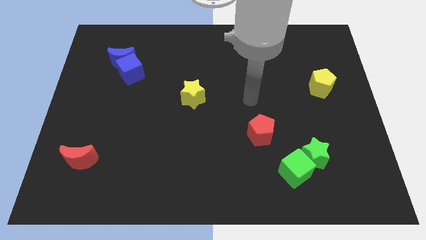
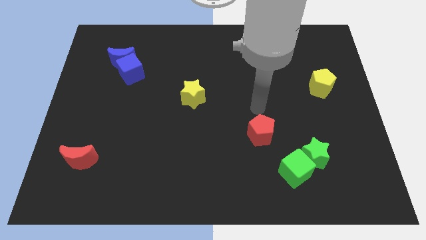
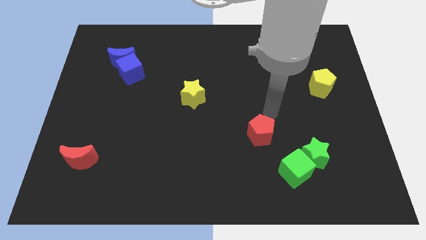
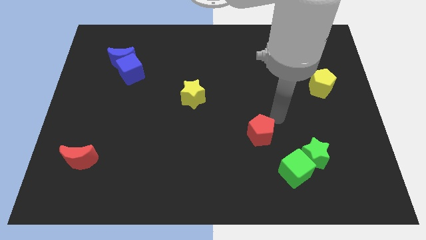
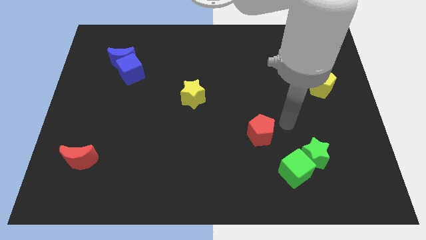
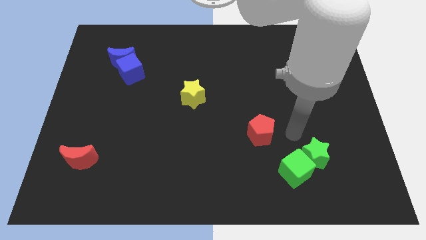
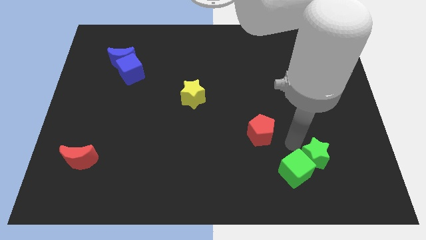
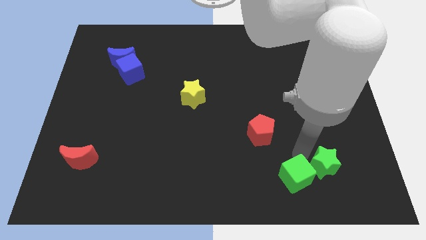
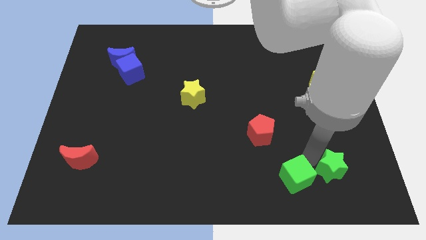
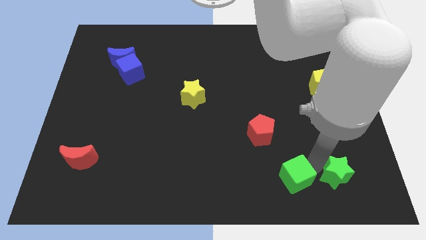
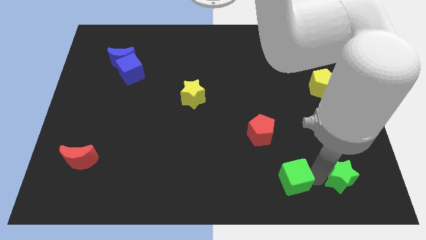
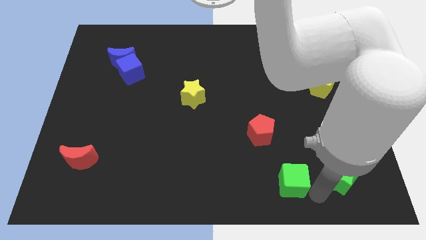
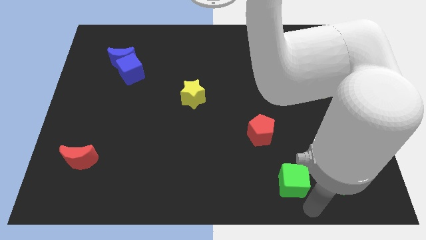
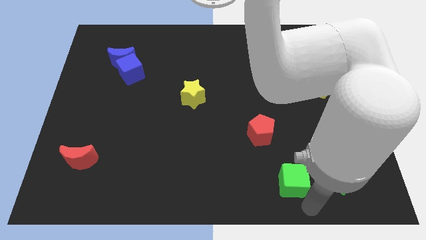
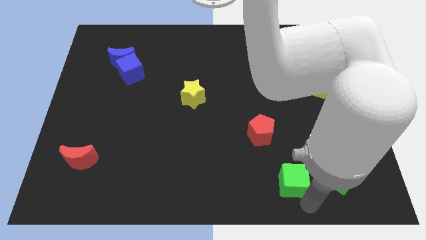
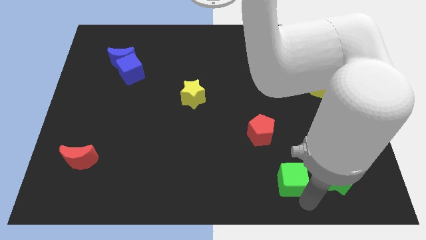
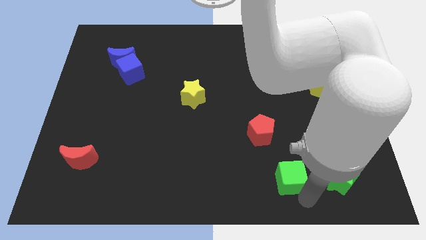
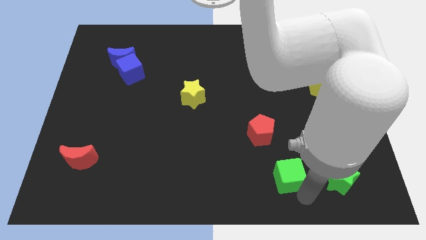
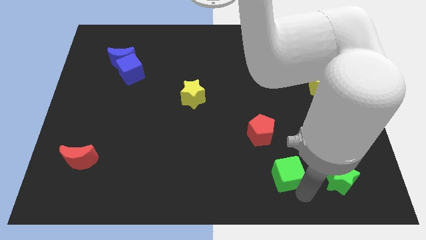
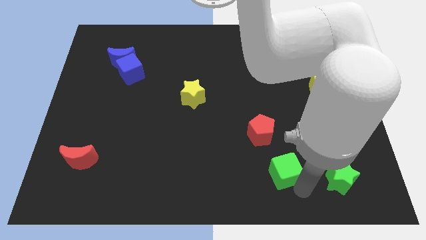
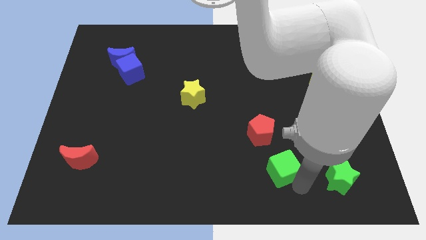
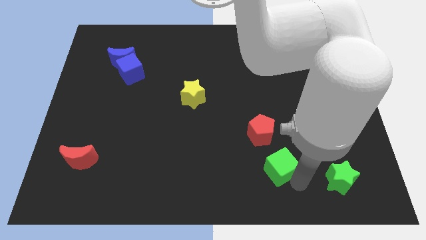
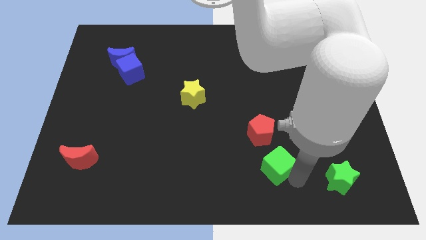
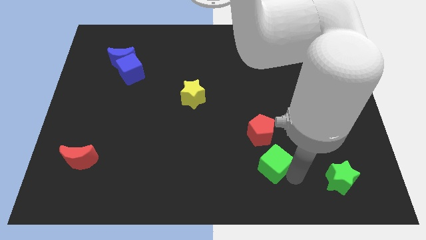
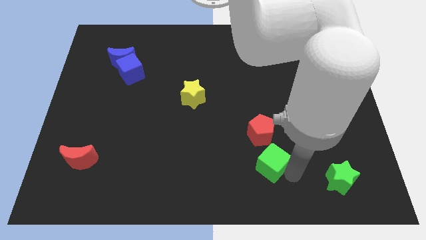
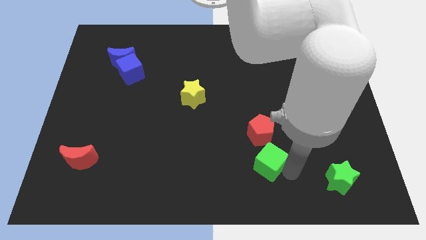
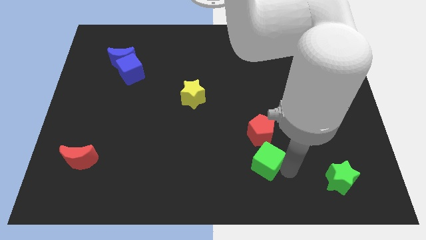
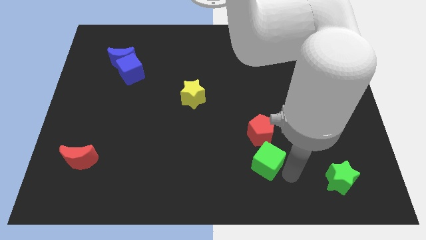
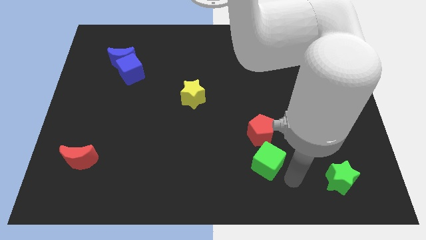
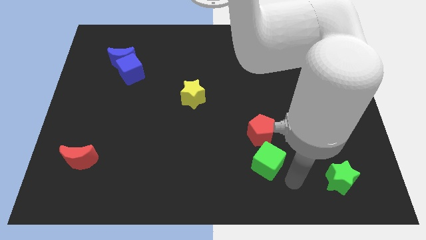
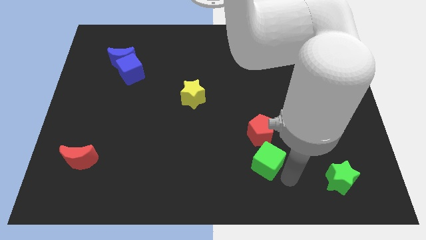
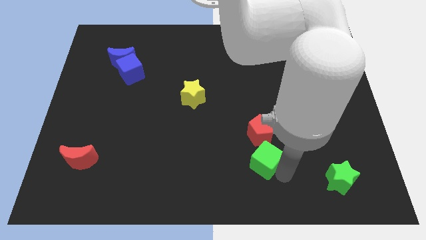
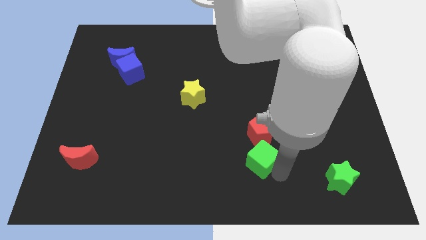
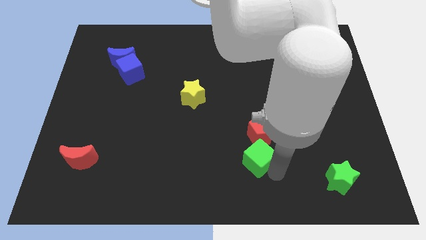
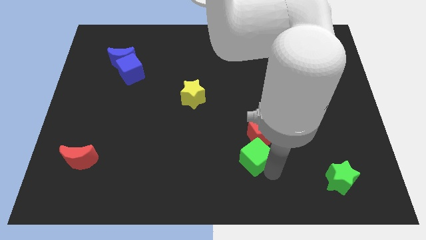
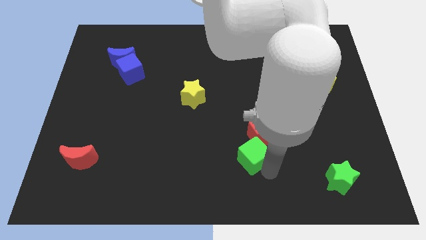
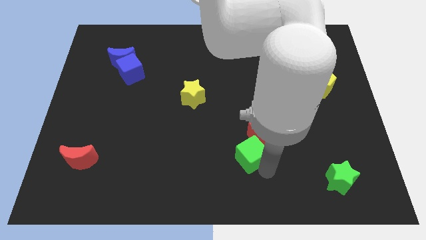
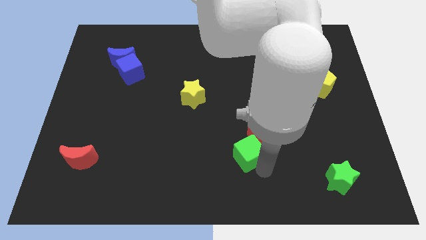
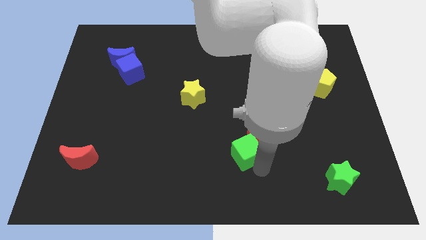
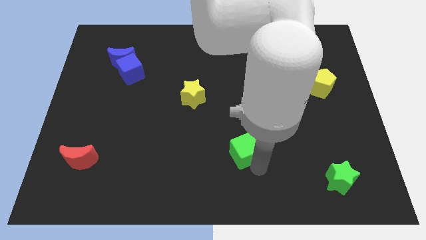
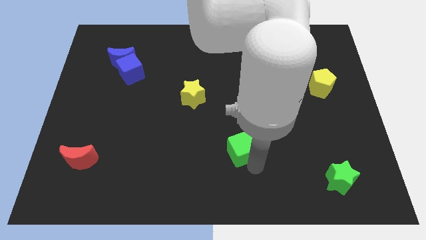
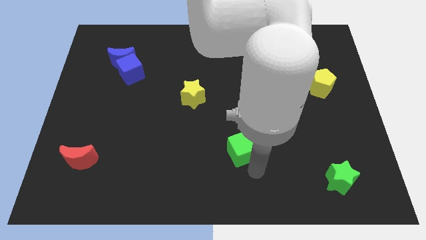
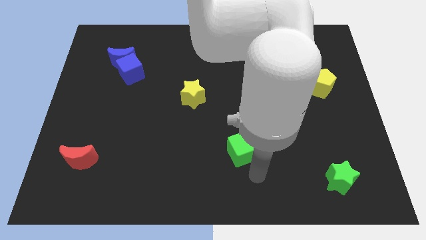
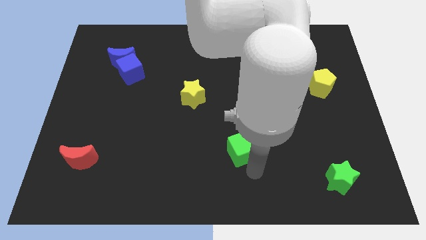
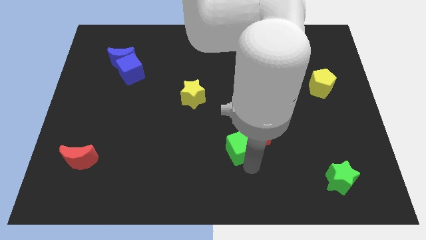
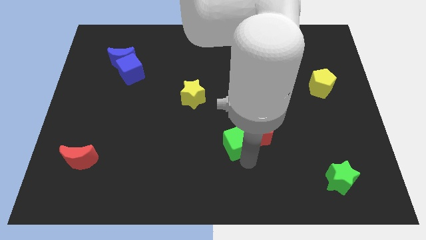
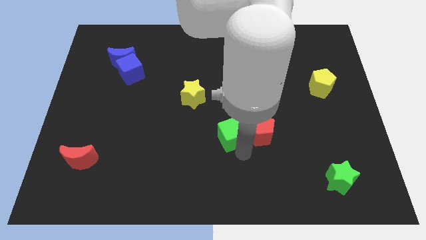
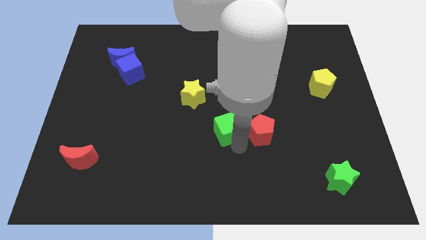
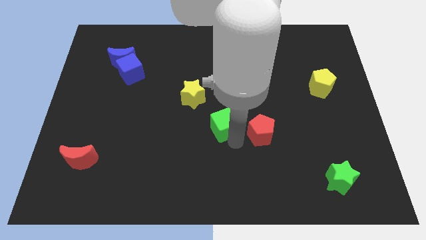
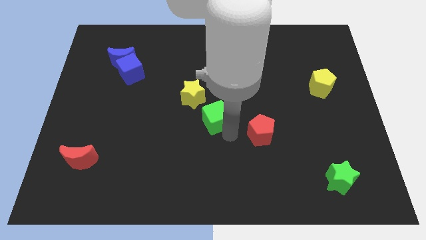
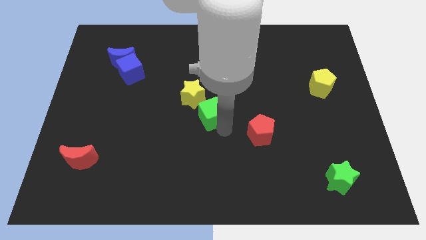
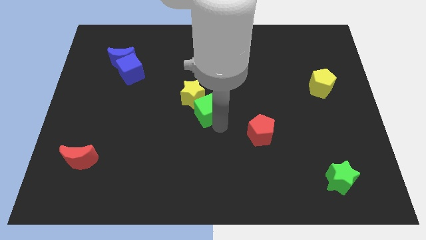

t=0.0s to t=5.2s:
move the green cube to the yellow star

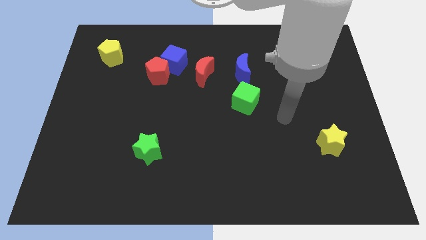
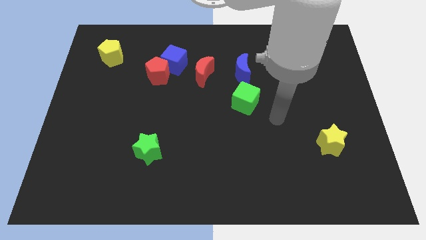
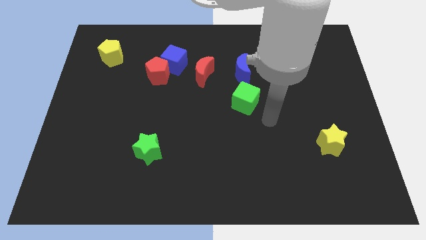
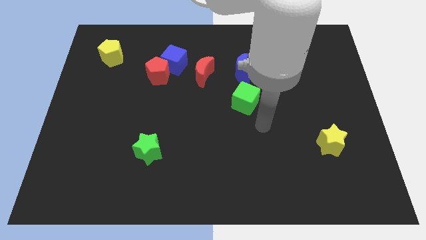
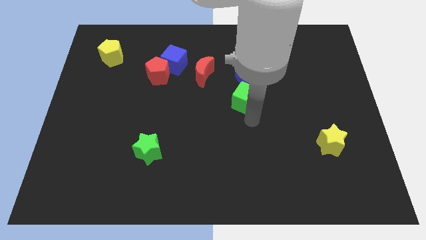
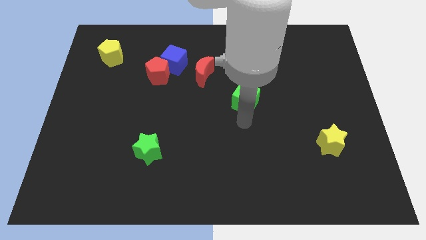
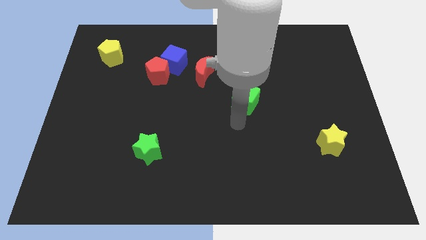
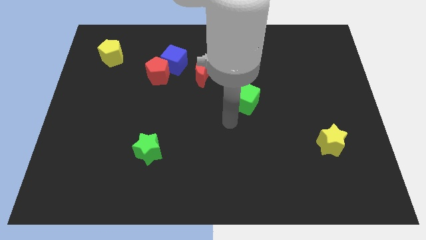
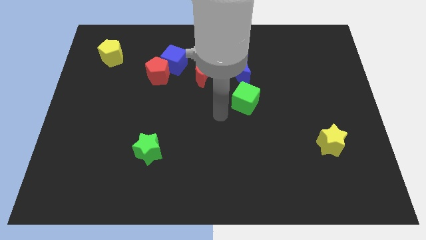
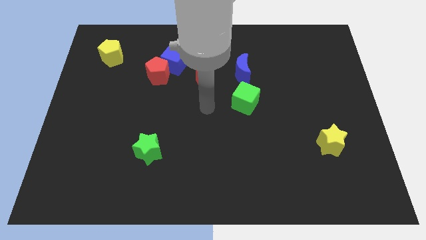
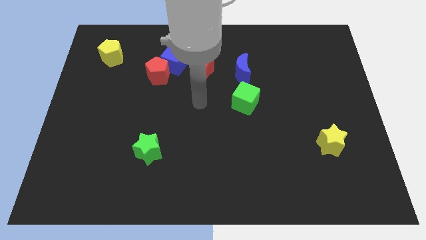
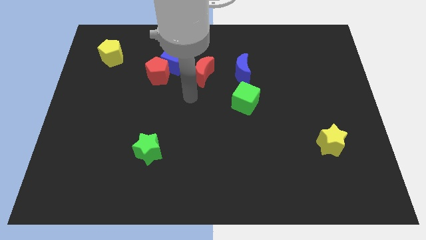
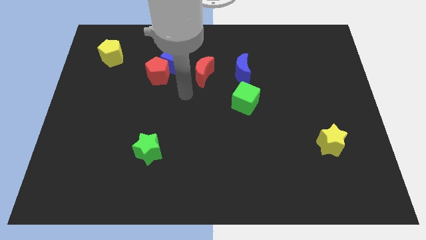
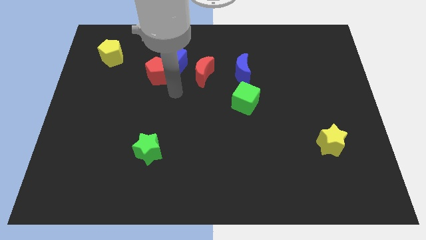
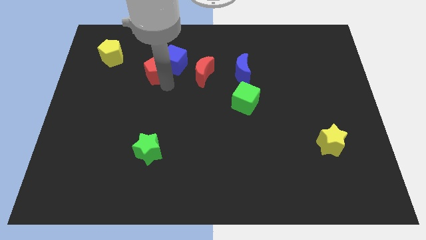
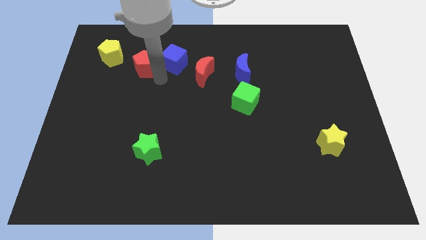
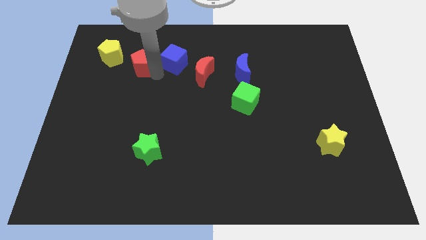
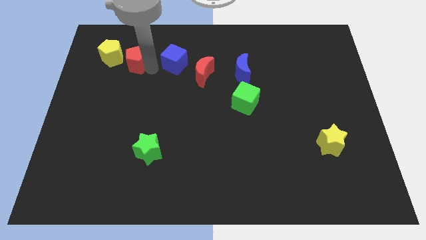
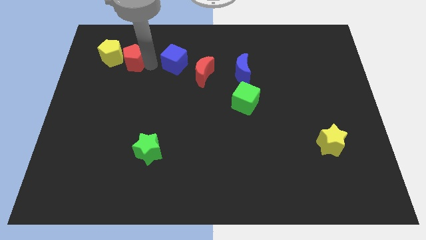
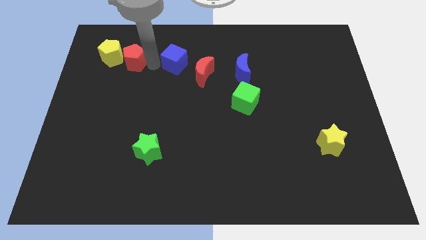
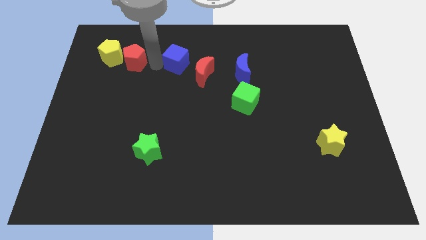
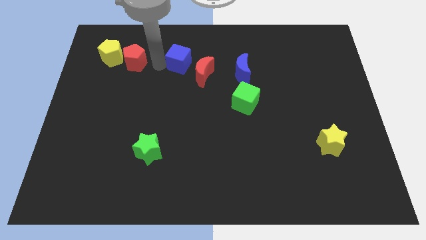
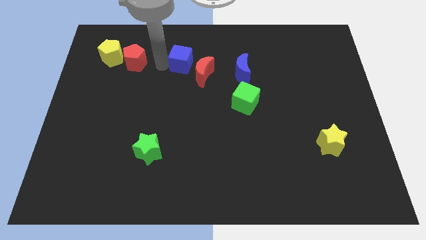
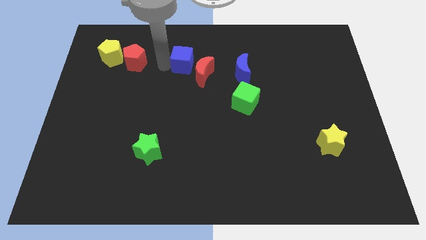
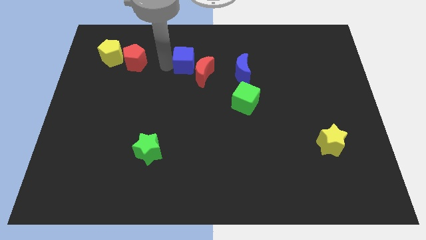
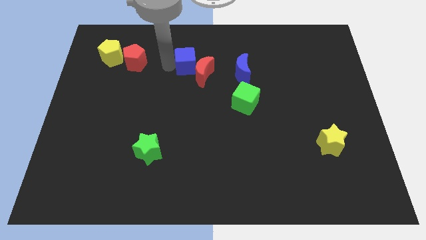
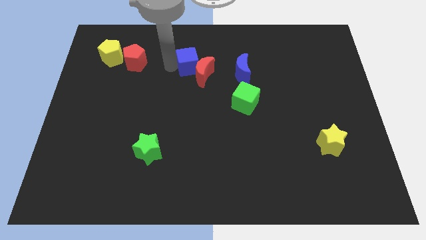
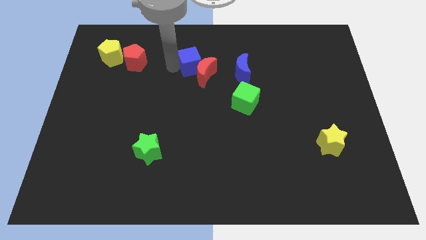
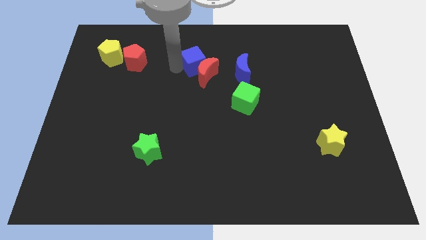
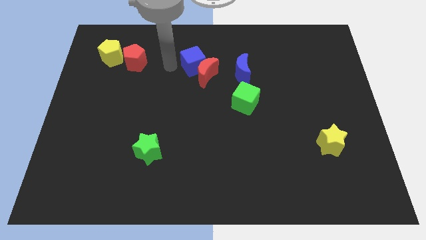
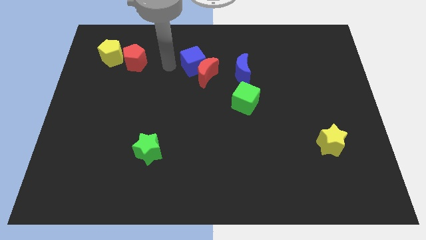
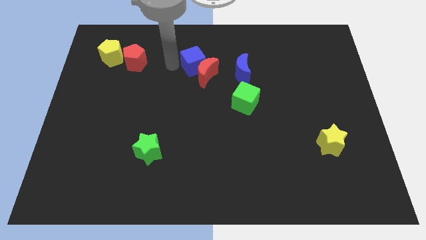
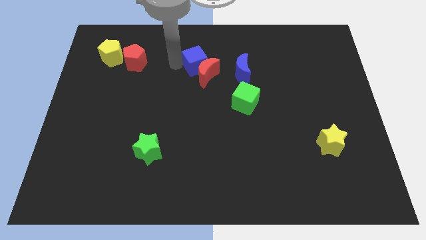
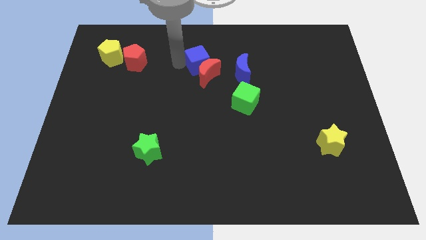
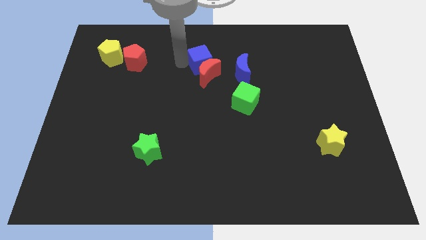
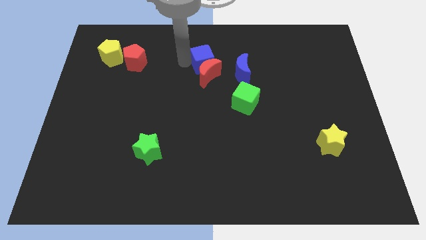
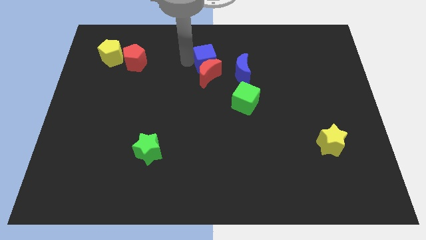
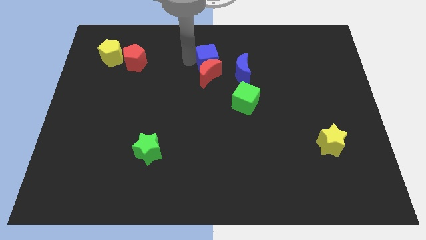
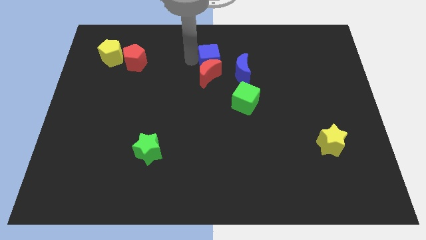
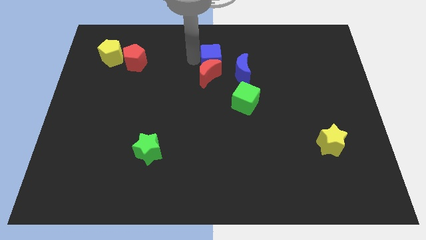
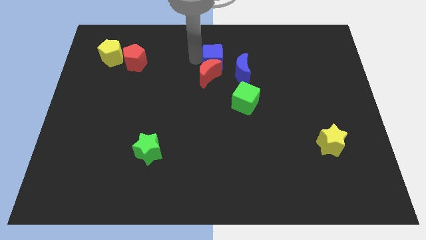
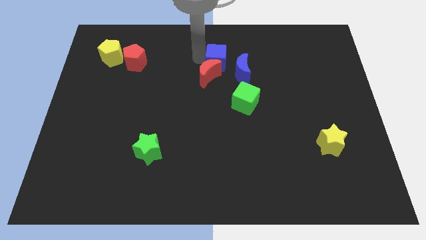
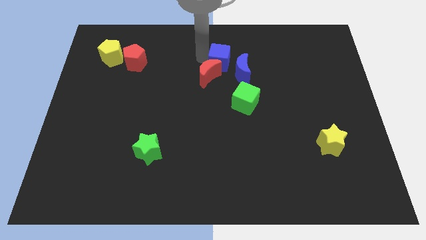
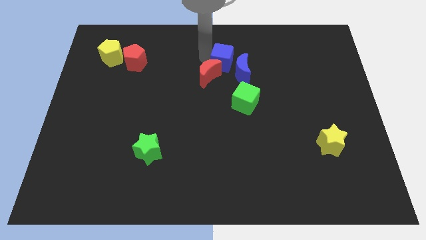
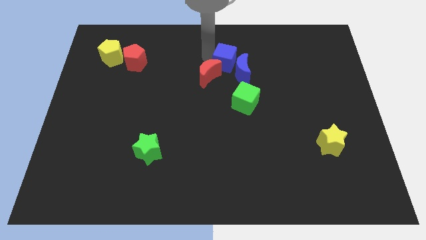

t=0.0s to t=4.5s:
slide the blue cube to the blue moon
